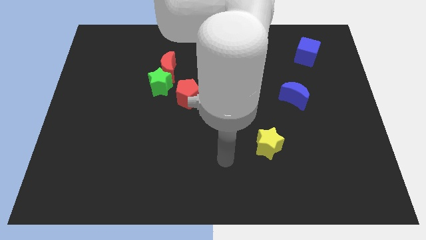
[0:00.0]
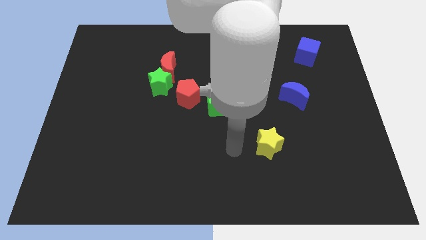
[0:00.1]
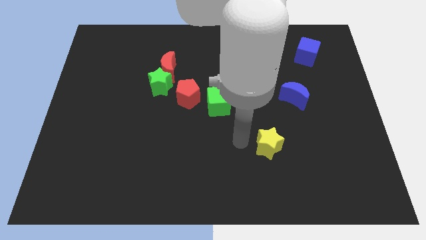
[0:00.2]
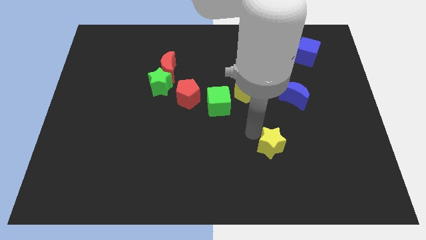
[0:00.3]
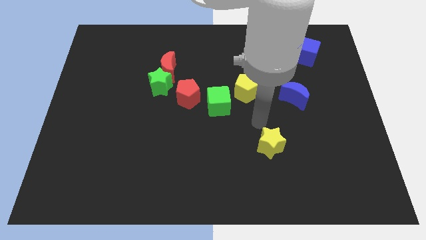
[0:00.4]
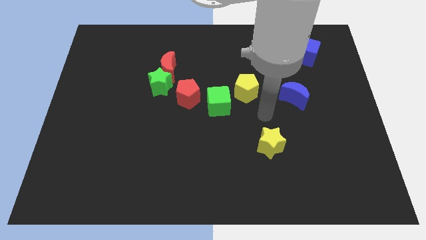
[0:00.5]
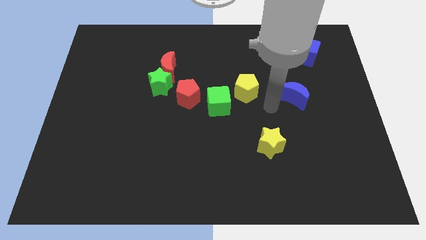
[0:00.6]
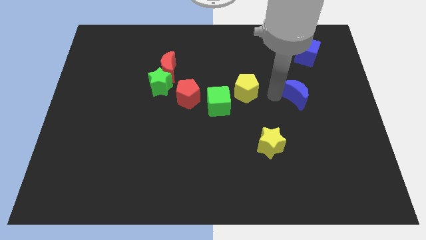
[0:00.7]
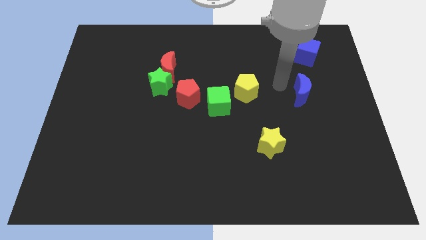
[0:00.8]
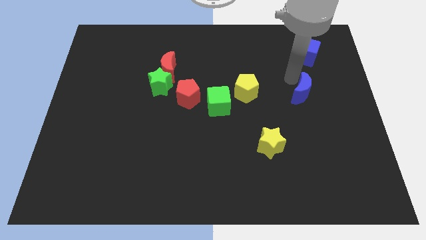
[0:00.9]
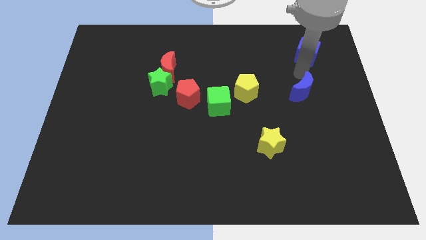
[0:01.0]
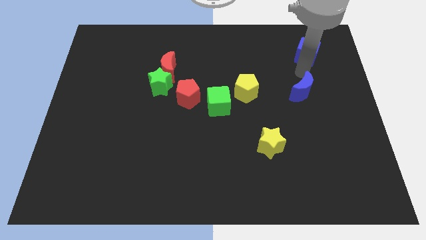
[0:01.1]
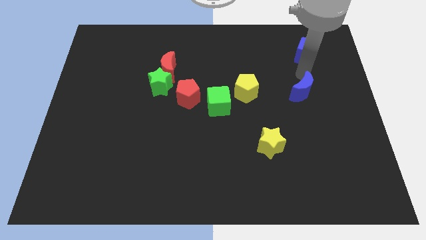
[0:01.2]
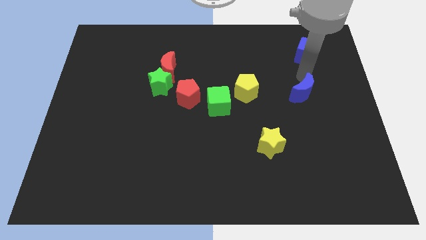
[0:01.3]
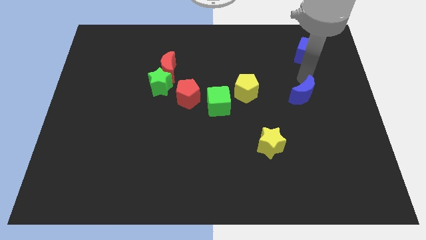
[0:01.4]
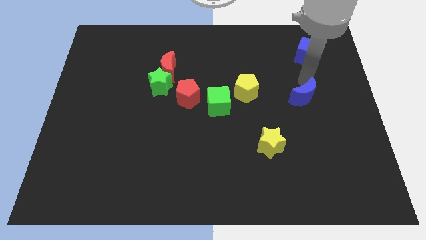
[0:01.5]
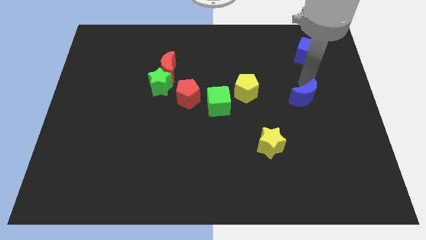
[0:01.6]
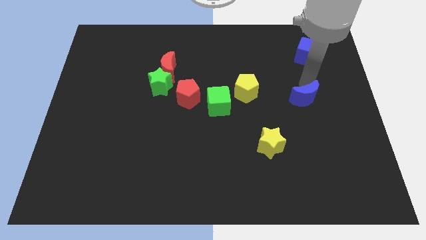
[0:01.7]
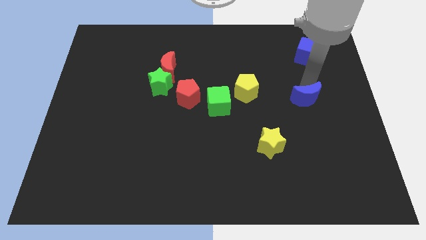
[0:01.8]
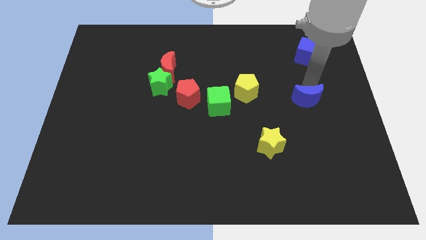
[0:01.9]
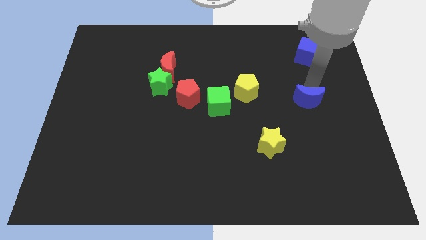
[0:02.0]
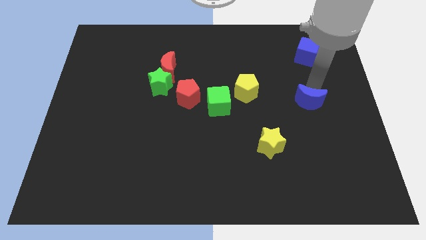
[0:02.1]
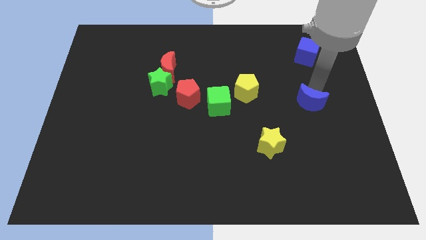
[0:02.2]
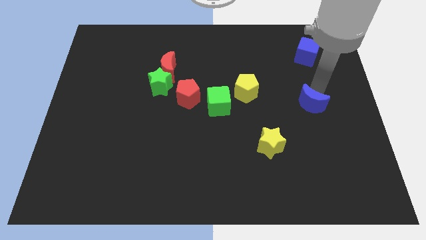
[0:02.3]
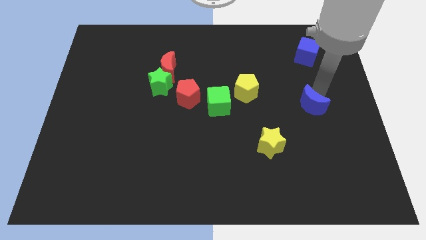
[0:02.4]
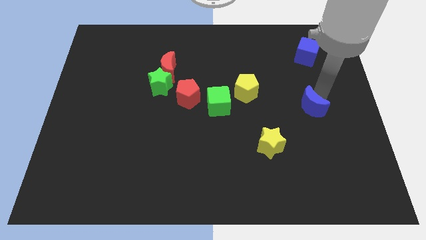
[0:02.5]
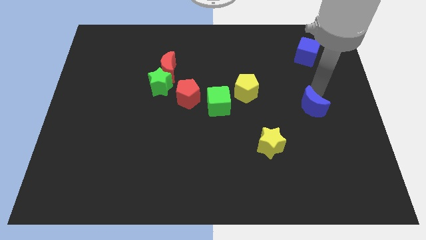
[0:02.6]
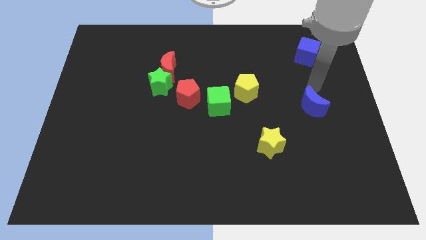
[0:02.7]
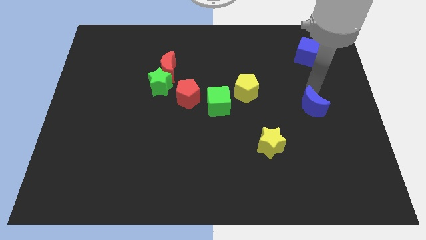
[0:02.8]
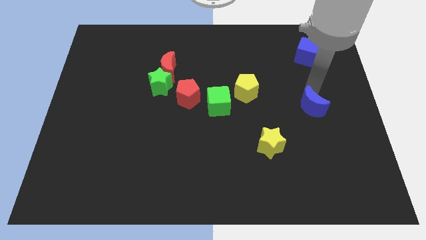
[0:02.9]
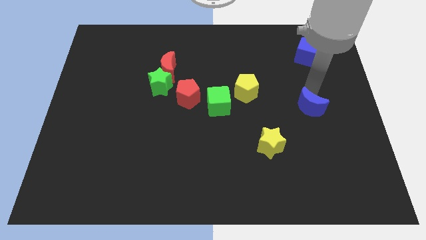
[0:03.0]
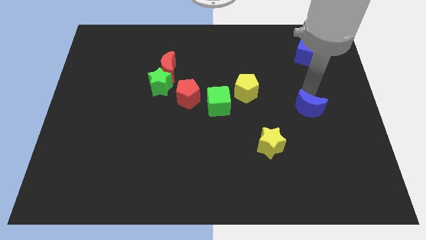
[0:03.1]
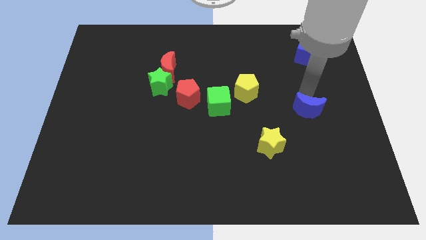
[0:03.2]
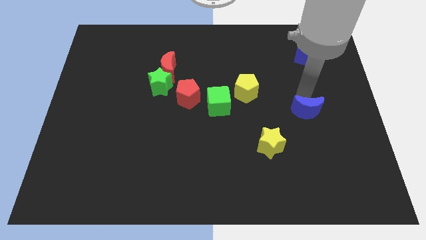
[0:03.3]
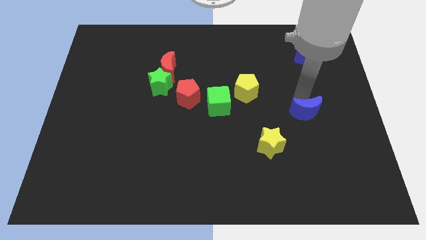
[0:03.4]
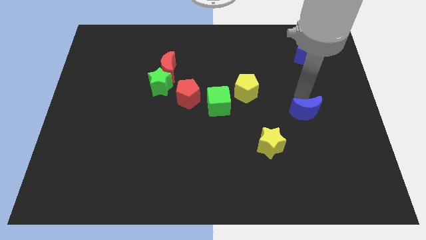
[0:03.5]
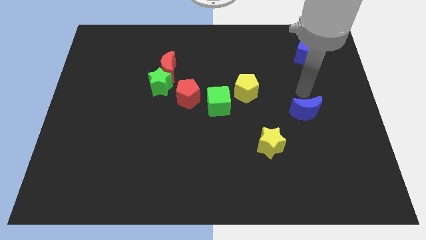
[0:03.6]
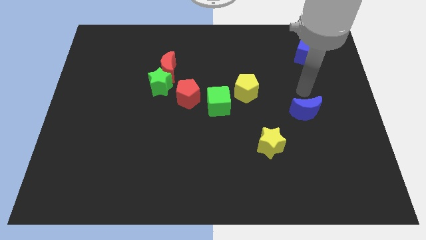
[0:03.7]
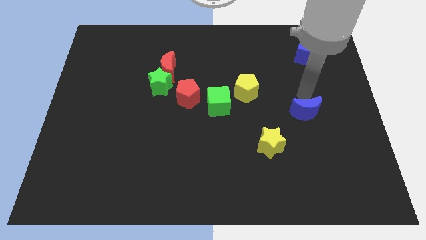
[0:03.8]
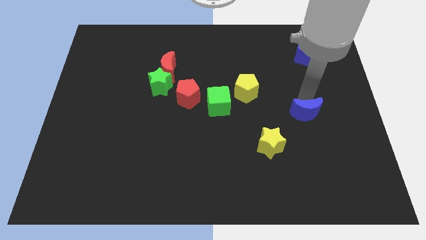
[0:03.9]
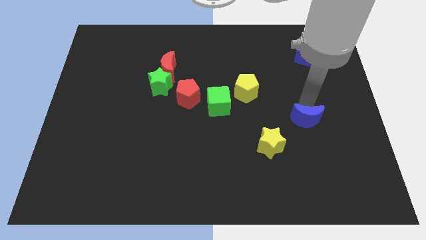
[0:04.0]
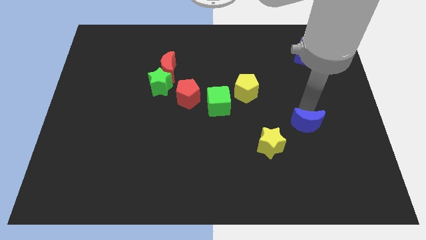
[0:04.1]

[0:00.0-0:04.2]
slightly move the blue moon down

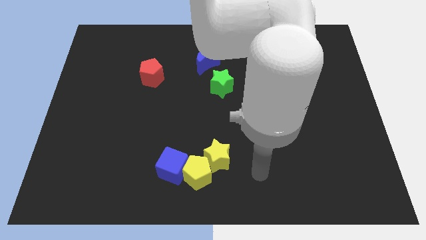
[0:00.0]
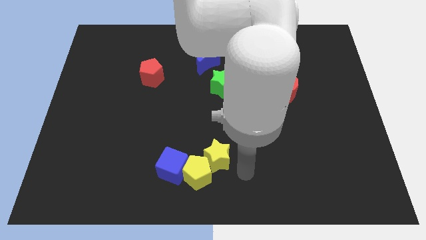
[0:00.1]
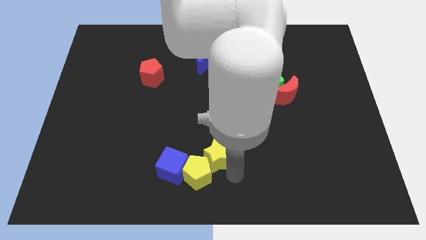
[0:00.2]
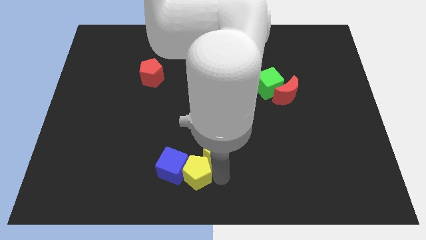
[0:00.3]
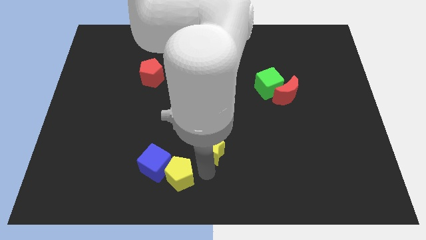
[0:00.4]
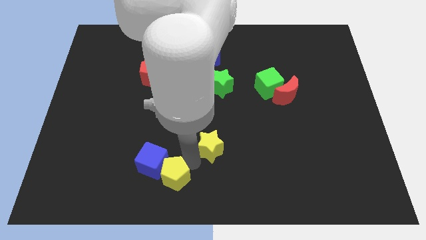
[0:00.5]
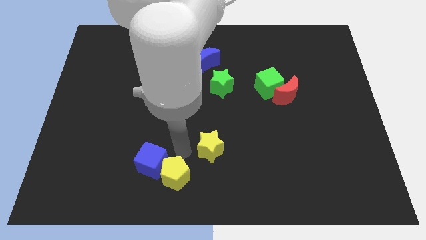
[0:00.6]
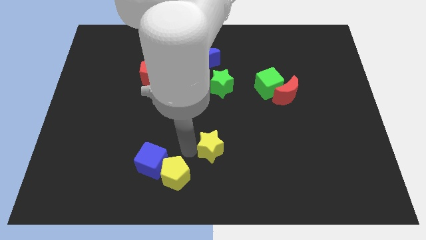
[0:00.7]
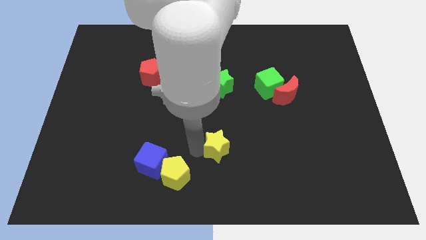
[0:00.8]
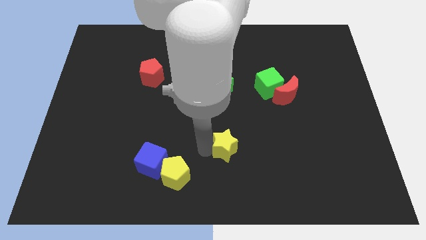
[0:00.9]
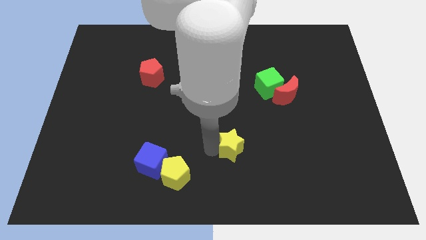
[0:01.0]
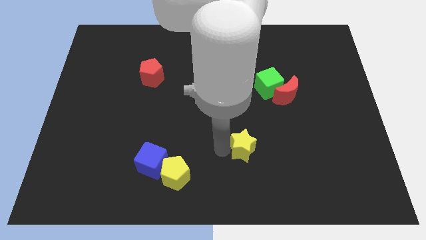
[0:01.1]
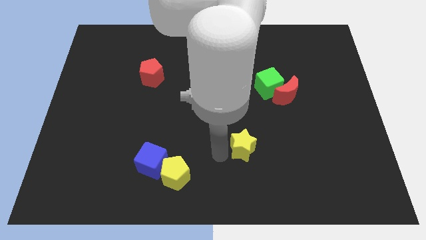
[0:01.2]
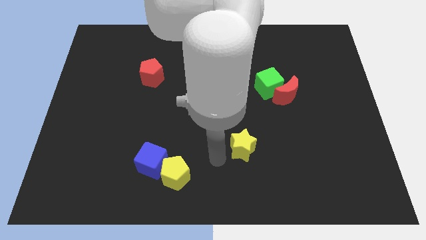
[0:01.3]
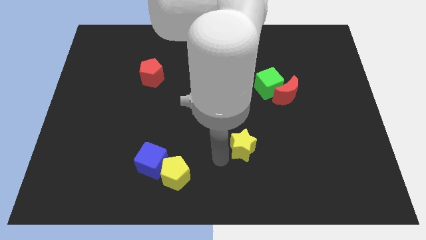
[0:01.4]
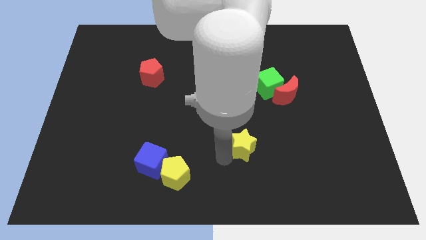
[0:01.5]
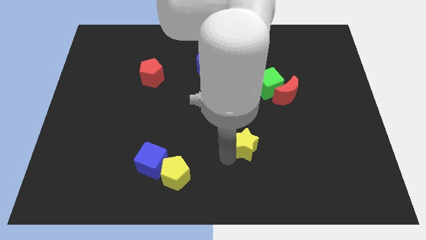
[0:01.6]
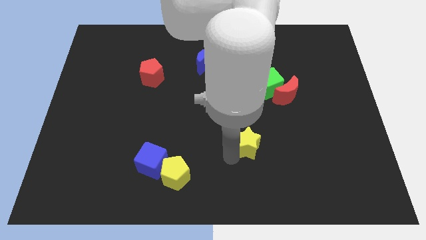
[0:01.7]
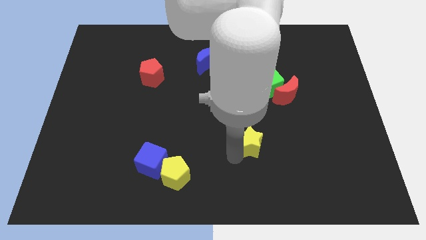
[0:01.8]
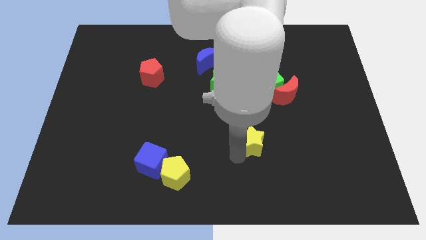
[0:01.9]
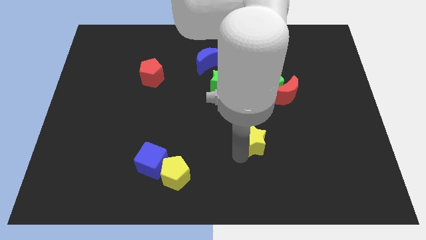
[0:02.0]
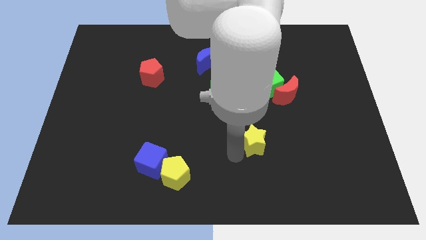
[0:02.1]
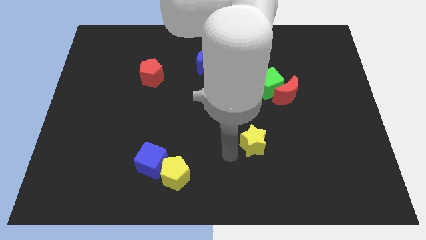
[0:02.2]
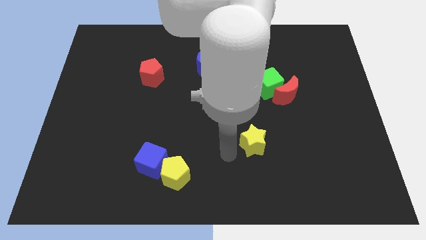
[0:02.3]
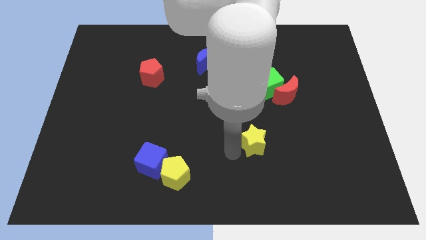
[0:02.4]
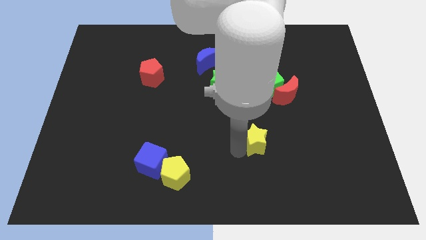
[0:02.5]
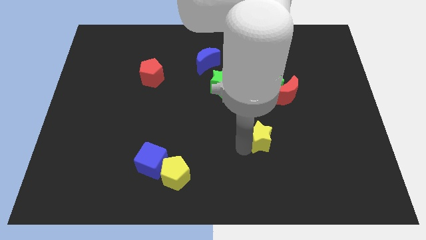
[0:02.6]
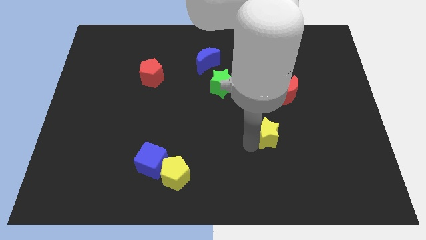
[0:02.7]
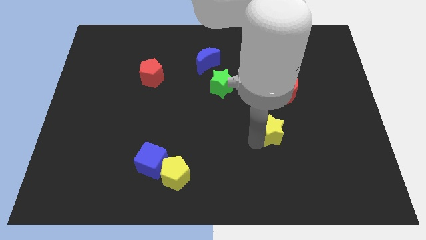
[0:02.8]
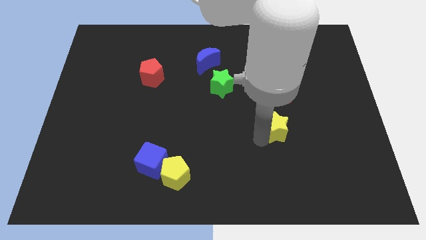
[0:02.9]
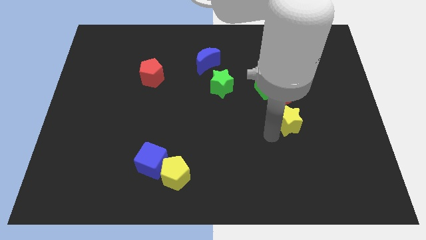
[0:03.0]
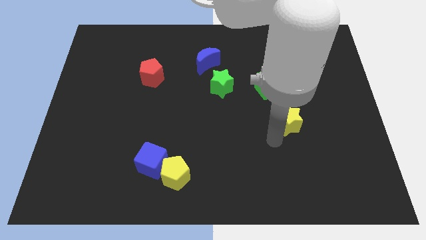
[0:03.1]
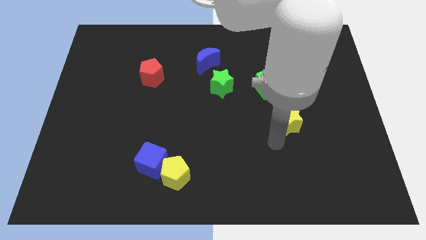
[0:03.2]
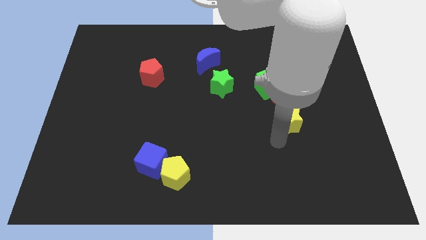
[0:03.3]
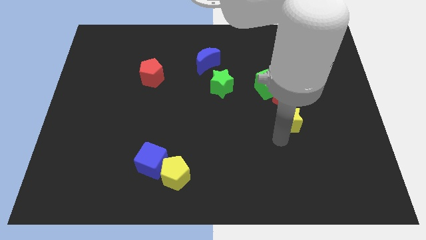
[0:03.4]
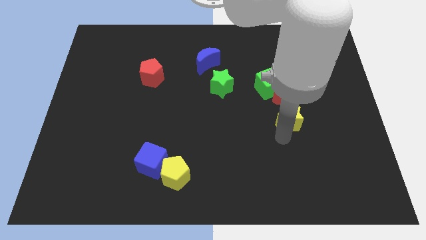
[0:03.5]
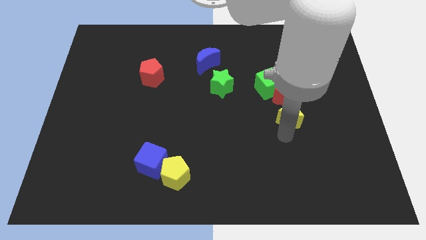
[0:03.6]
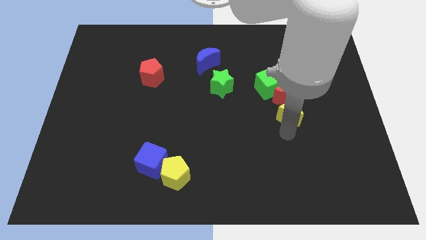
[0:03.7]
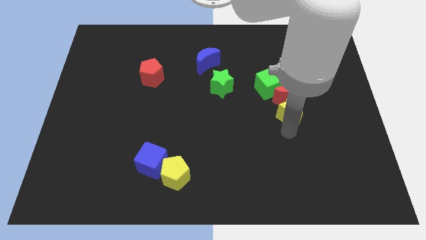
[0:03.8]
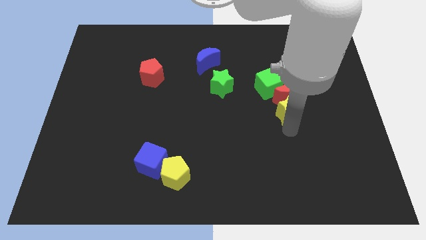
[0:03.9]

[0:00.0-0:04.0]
push the yellow star up and to the right

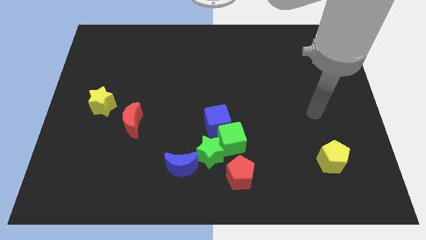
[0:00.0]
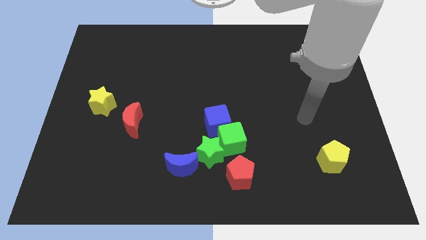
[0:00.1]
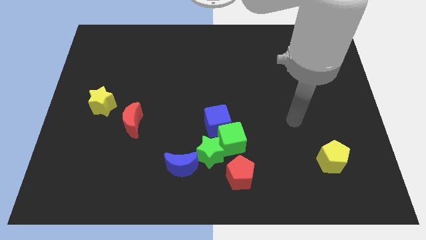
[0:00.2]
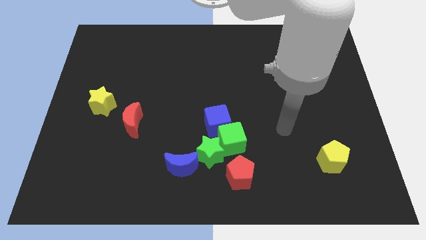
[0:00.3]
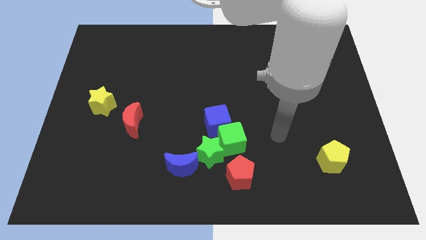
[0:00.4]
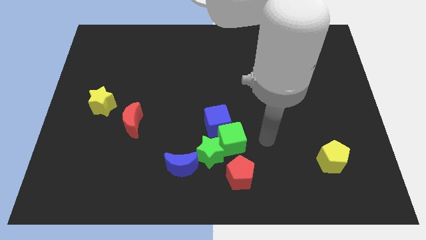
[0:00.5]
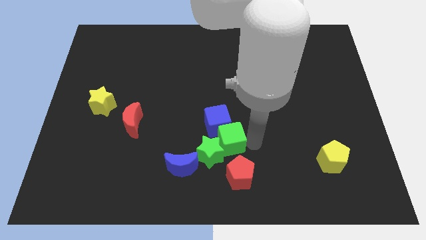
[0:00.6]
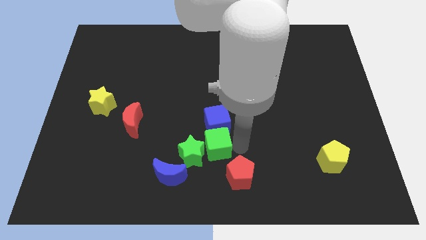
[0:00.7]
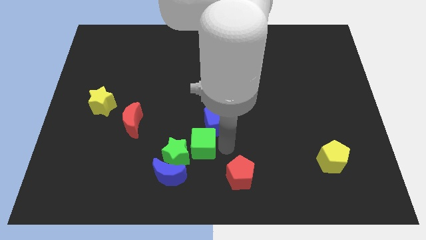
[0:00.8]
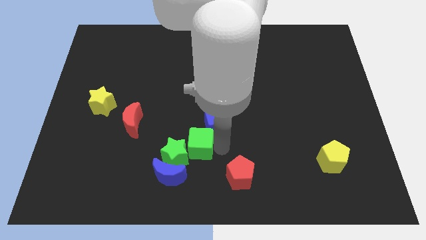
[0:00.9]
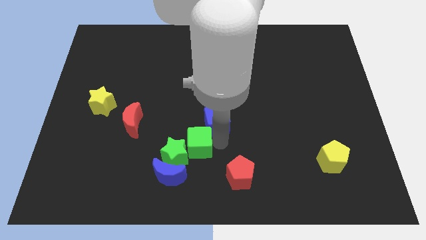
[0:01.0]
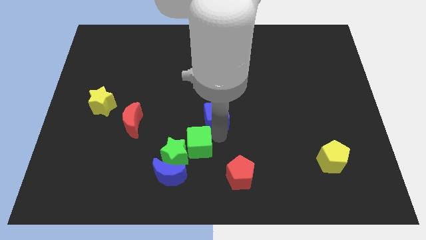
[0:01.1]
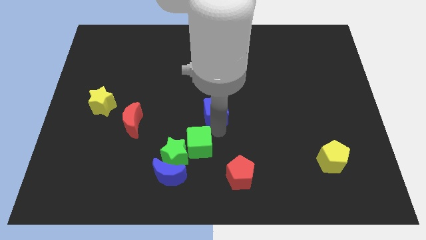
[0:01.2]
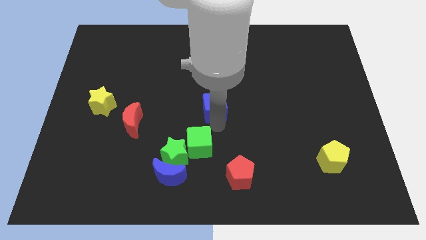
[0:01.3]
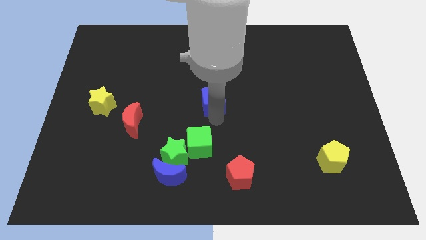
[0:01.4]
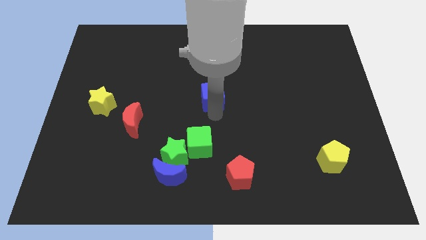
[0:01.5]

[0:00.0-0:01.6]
move the blue cube up a little bit
